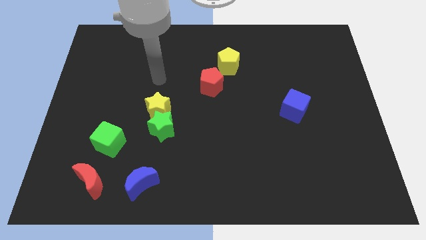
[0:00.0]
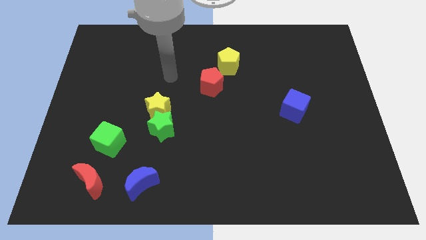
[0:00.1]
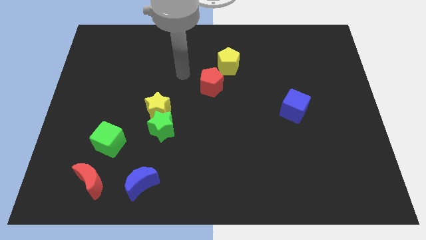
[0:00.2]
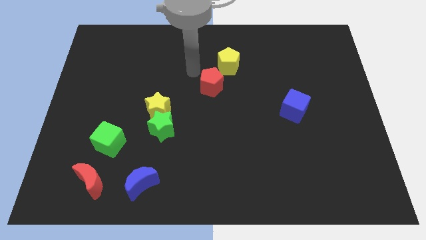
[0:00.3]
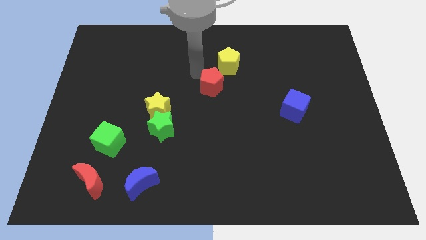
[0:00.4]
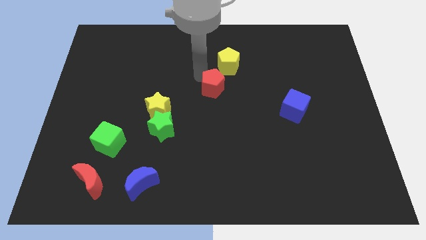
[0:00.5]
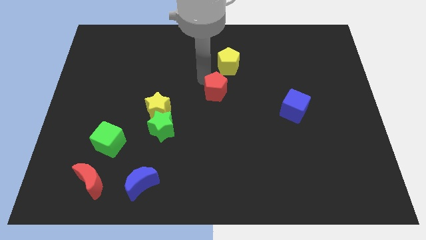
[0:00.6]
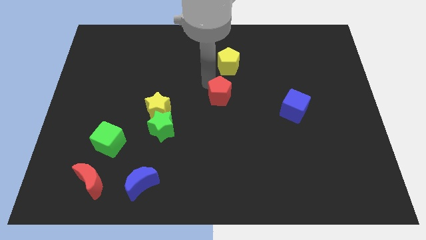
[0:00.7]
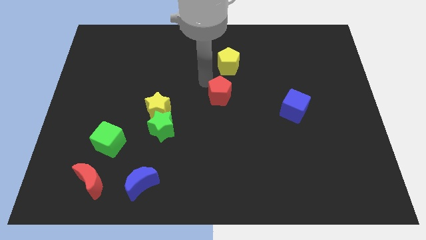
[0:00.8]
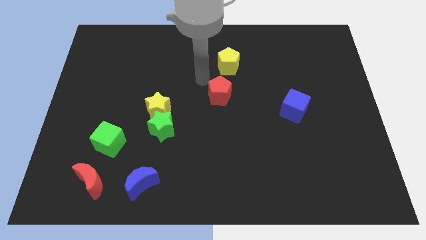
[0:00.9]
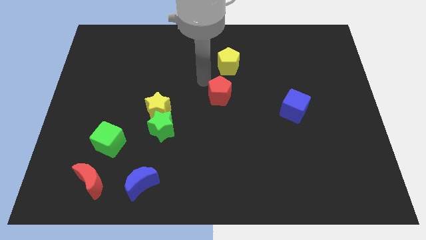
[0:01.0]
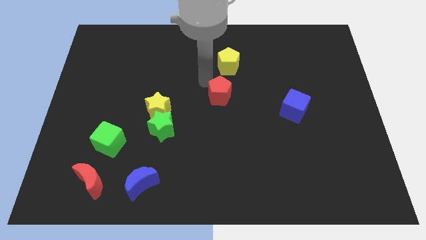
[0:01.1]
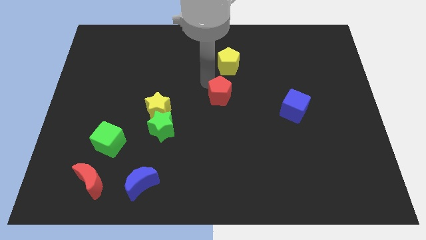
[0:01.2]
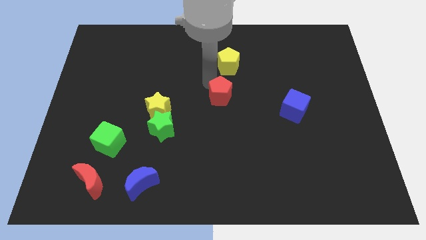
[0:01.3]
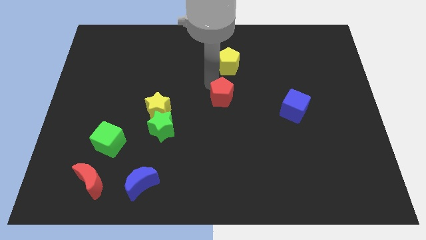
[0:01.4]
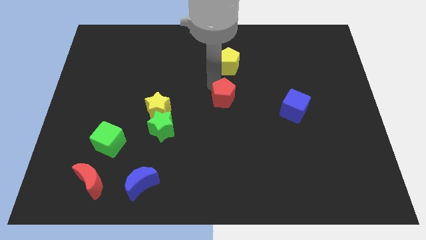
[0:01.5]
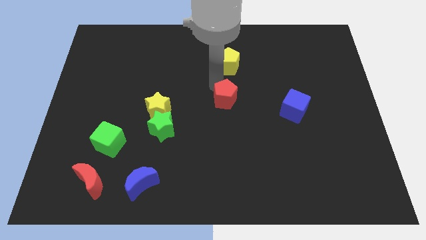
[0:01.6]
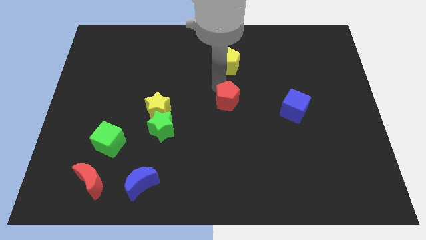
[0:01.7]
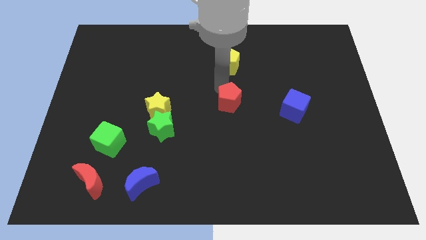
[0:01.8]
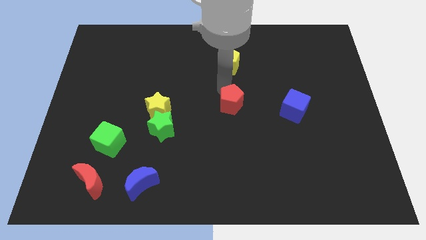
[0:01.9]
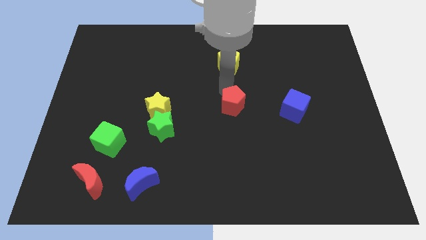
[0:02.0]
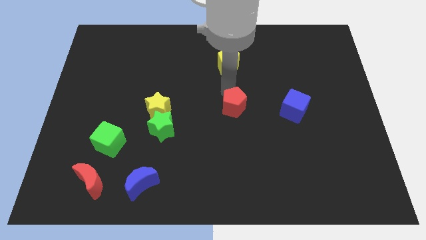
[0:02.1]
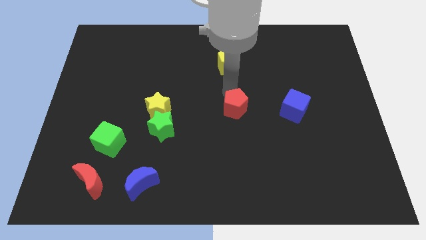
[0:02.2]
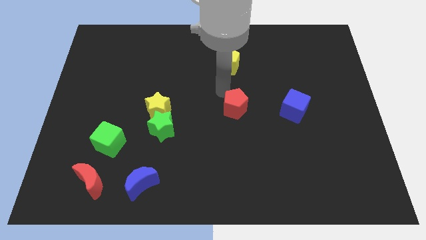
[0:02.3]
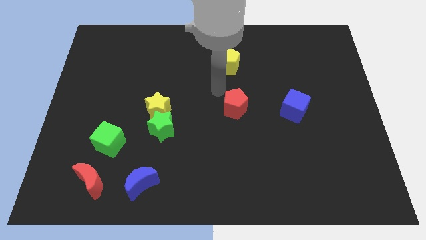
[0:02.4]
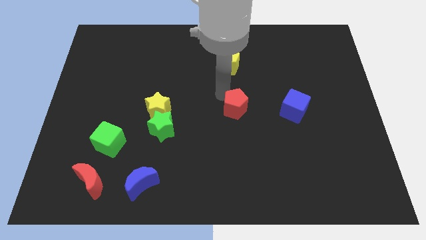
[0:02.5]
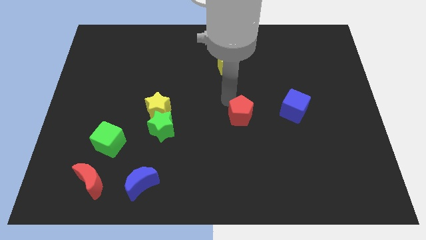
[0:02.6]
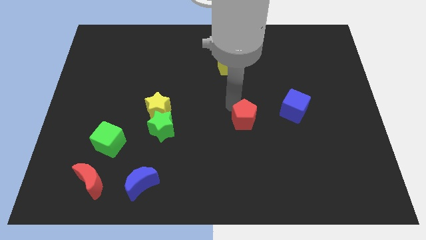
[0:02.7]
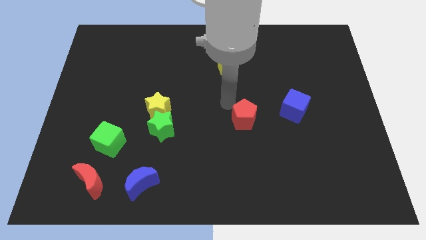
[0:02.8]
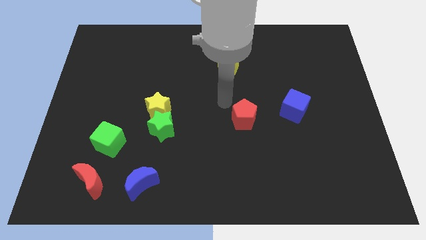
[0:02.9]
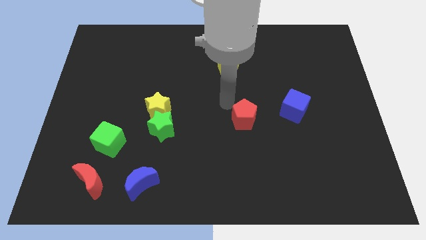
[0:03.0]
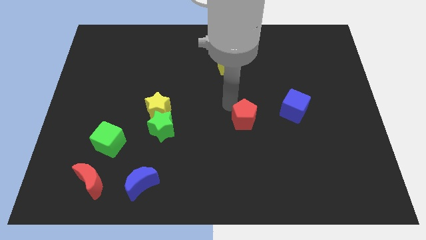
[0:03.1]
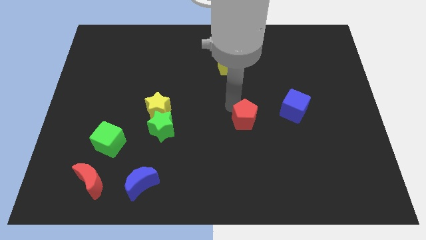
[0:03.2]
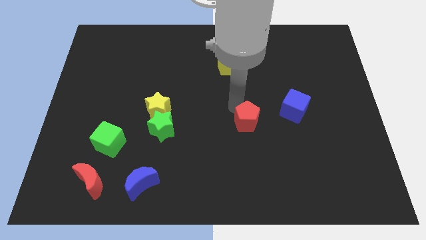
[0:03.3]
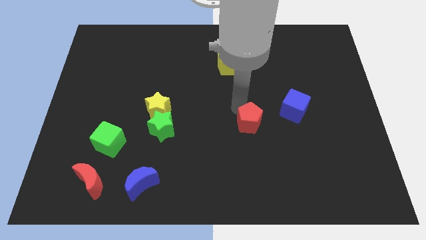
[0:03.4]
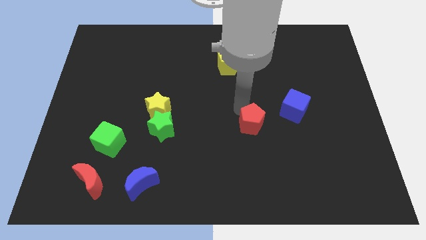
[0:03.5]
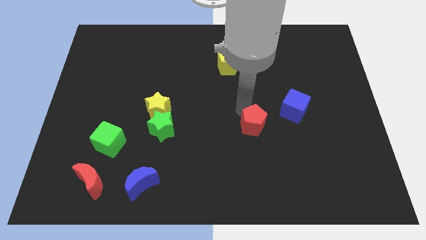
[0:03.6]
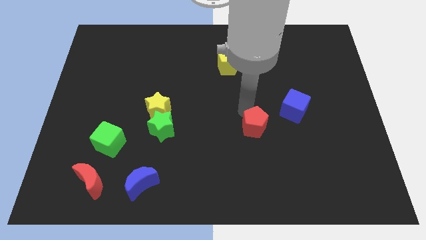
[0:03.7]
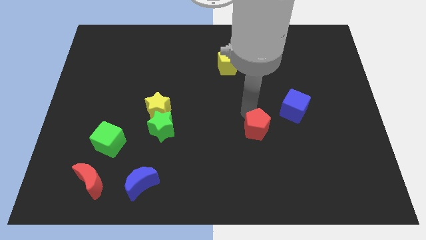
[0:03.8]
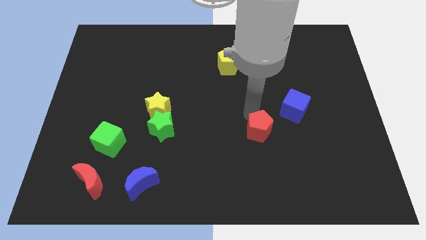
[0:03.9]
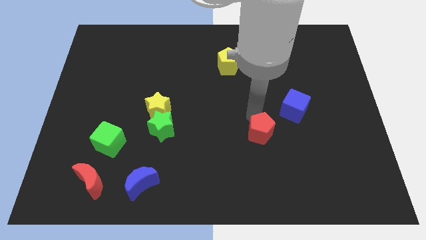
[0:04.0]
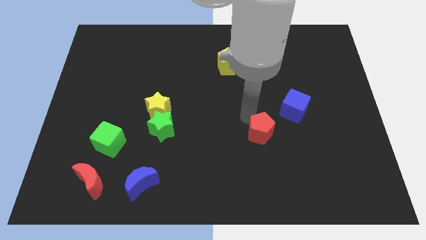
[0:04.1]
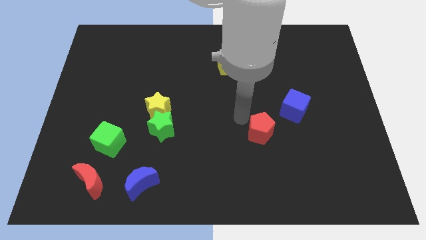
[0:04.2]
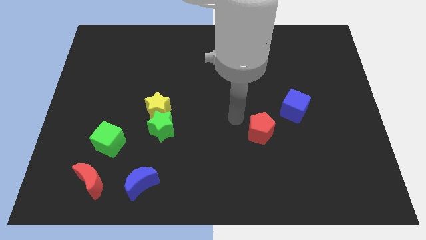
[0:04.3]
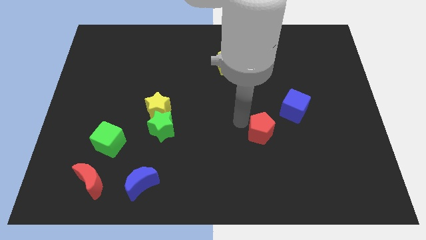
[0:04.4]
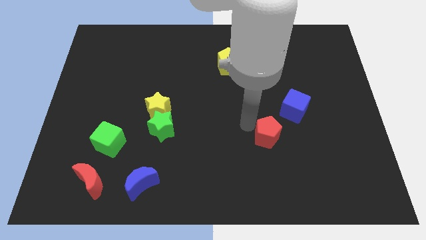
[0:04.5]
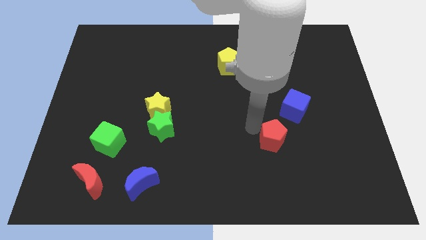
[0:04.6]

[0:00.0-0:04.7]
push the red pentagon diagonally downwards and right

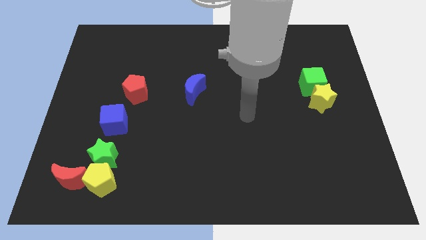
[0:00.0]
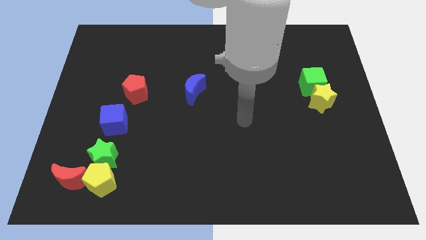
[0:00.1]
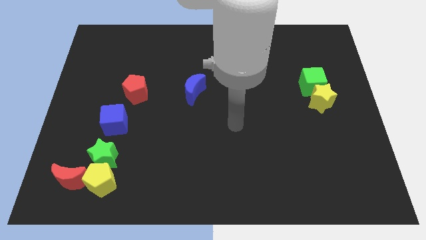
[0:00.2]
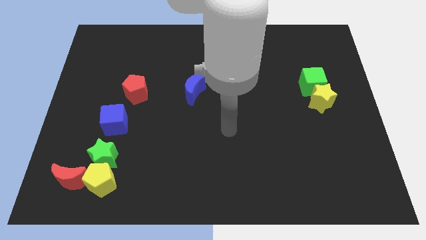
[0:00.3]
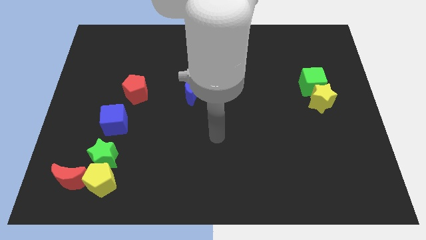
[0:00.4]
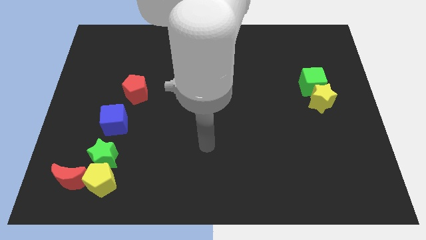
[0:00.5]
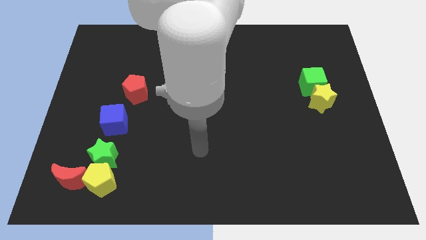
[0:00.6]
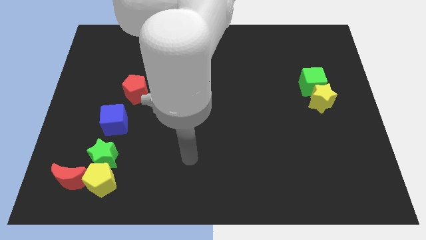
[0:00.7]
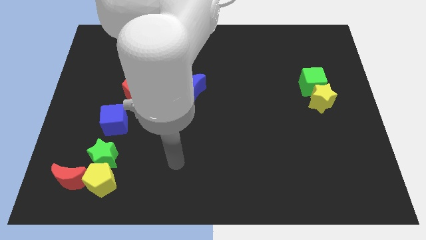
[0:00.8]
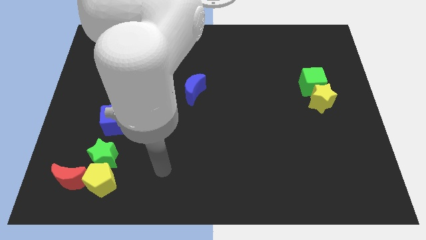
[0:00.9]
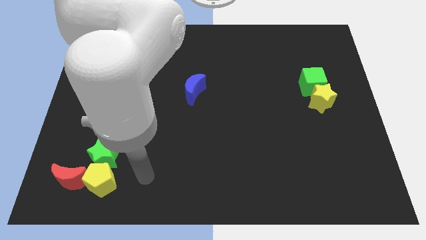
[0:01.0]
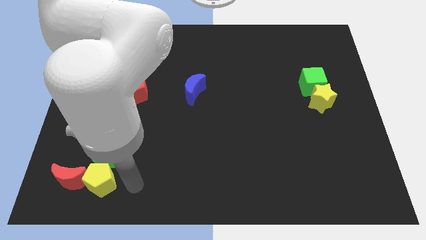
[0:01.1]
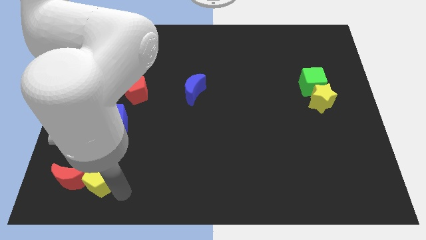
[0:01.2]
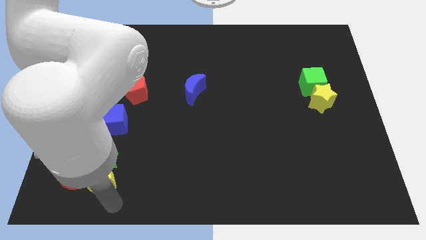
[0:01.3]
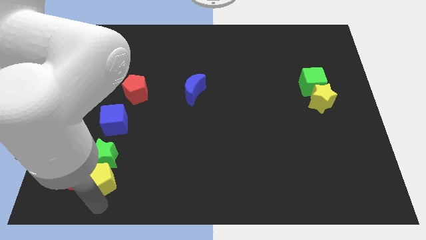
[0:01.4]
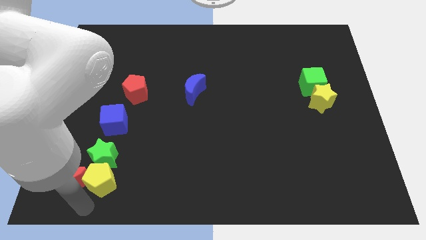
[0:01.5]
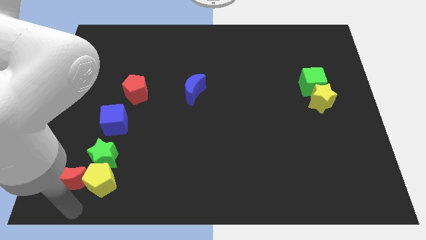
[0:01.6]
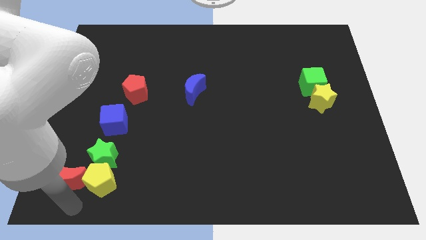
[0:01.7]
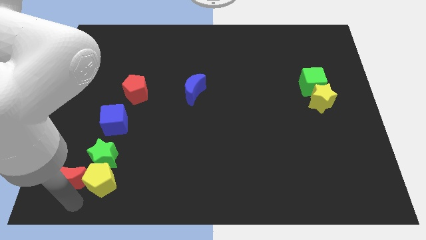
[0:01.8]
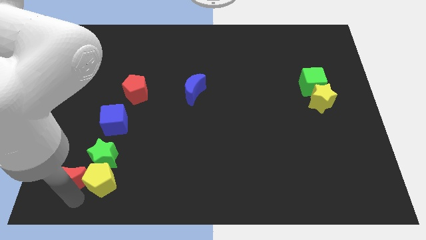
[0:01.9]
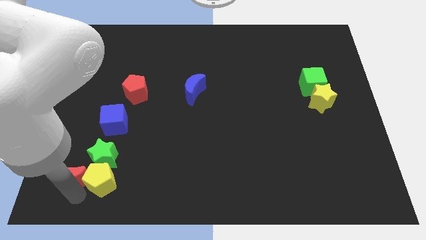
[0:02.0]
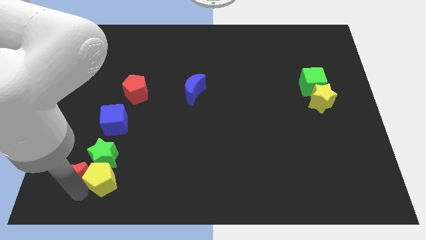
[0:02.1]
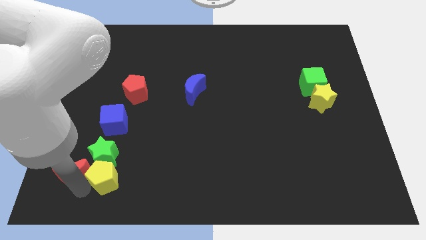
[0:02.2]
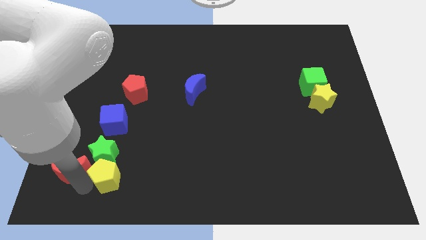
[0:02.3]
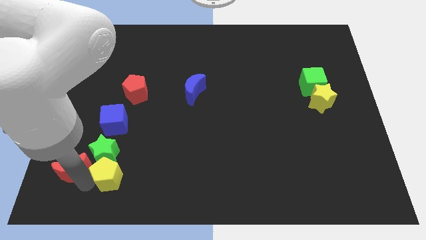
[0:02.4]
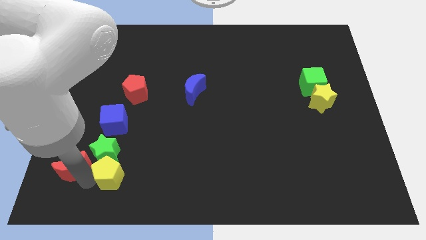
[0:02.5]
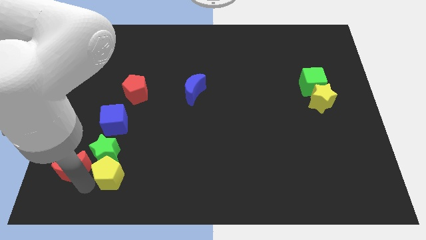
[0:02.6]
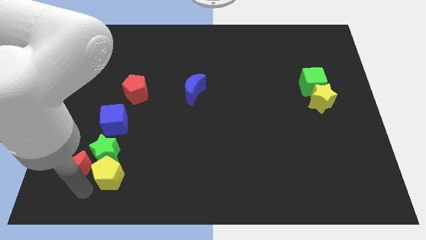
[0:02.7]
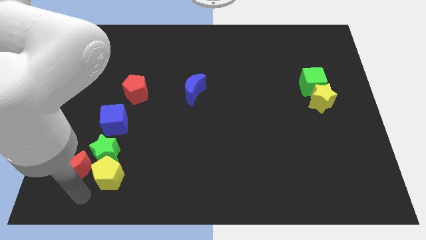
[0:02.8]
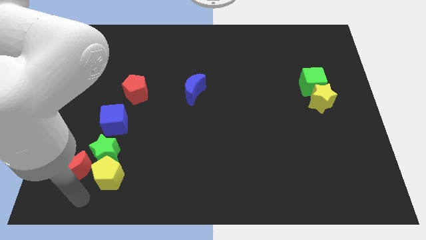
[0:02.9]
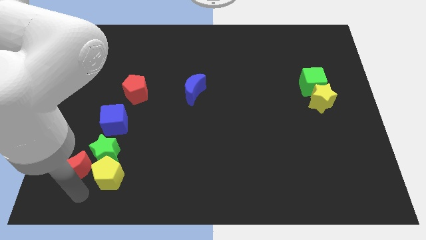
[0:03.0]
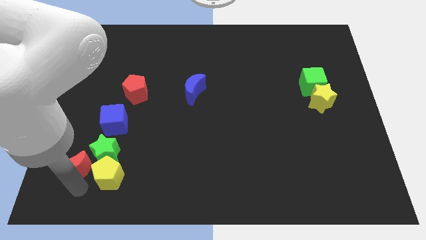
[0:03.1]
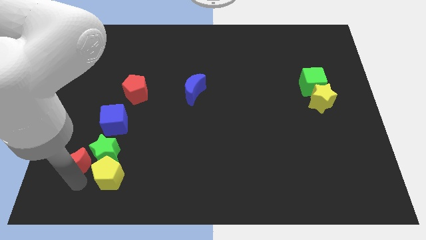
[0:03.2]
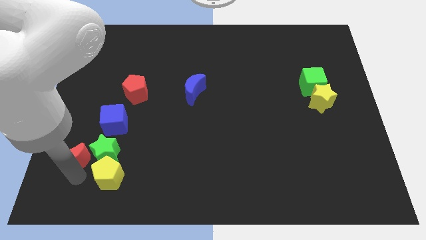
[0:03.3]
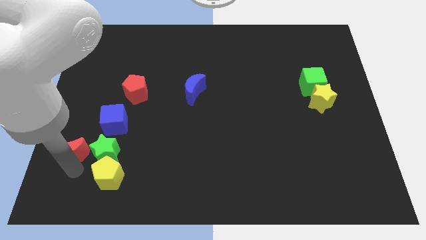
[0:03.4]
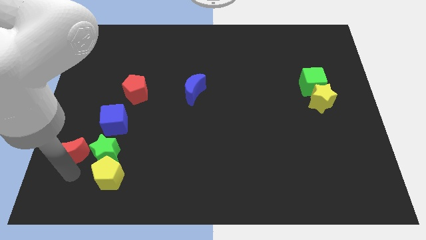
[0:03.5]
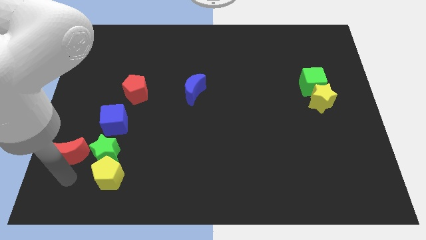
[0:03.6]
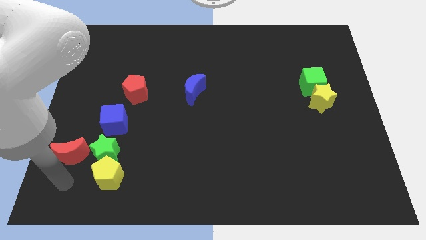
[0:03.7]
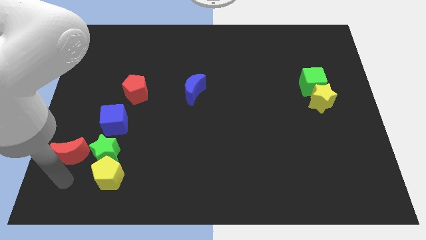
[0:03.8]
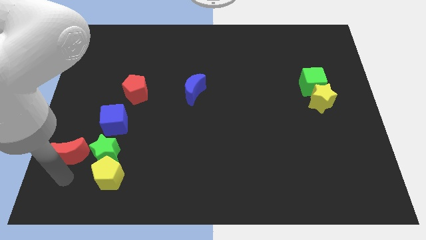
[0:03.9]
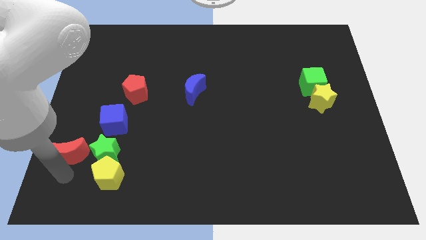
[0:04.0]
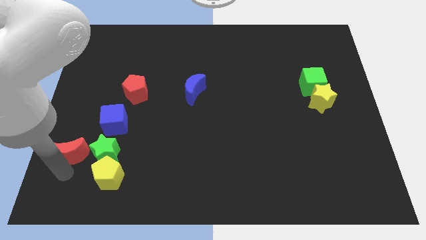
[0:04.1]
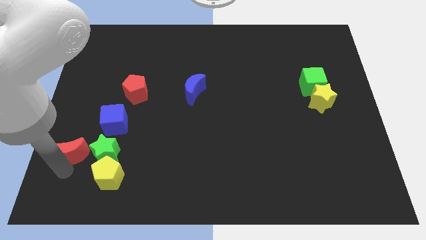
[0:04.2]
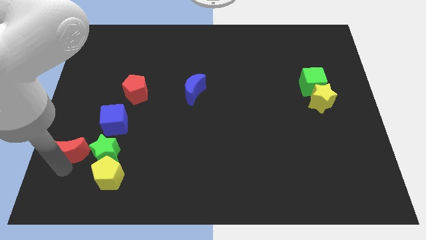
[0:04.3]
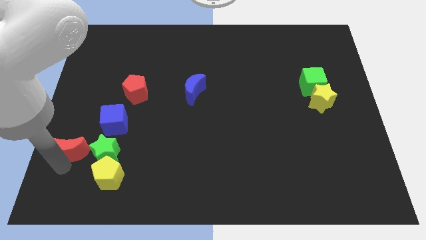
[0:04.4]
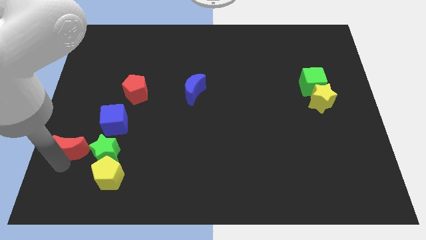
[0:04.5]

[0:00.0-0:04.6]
slightly move the red moon upwards
